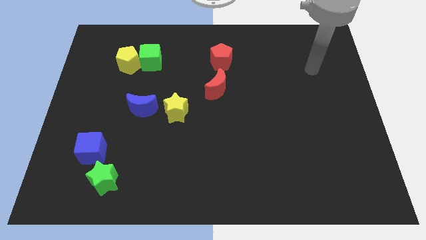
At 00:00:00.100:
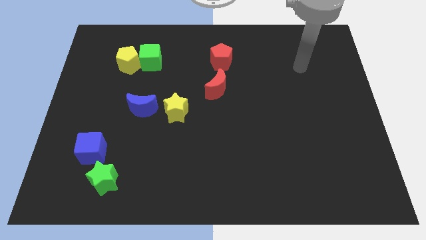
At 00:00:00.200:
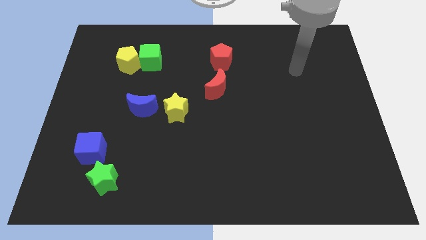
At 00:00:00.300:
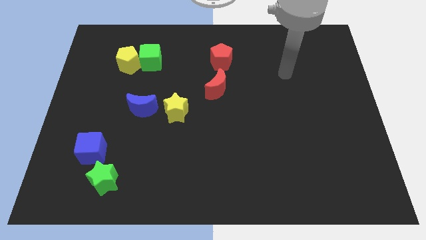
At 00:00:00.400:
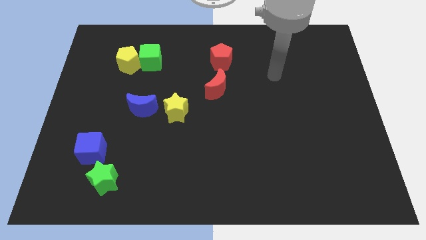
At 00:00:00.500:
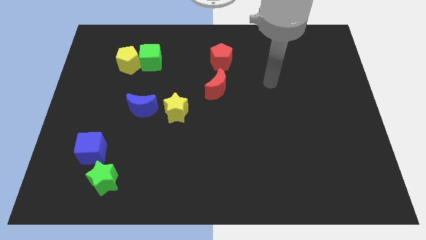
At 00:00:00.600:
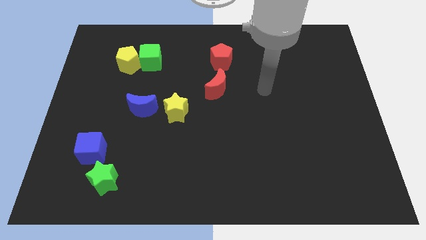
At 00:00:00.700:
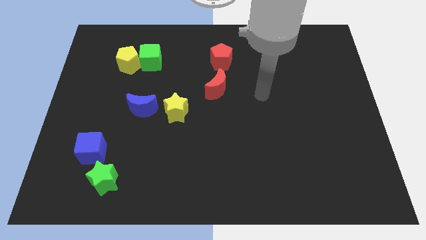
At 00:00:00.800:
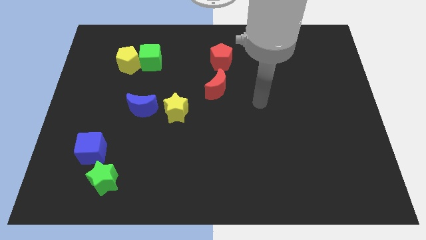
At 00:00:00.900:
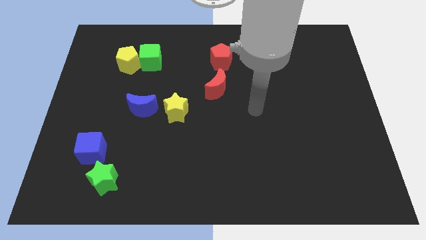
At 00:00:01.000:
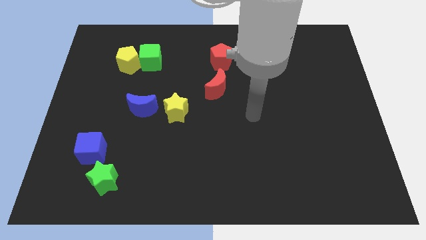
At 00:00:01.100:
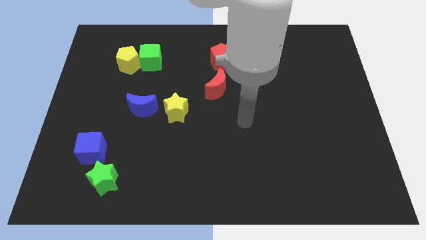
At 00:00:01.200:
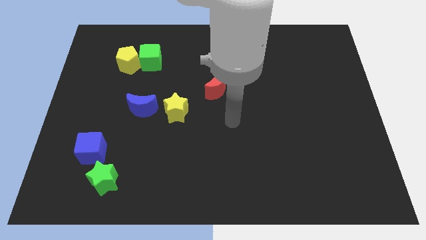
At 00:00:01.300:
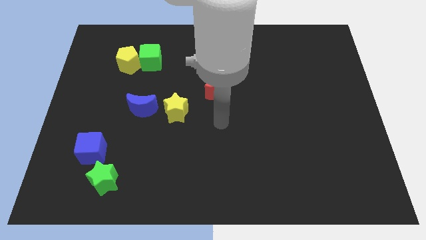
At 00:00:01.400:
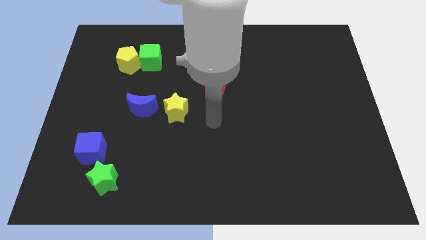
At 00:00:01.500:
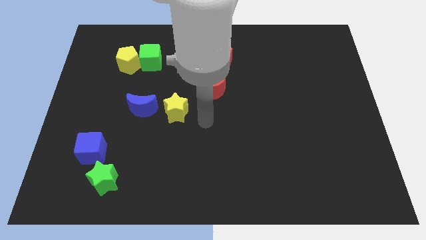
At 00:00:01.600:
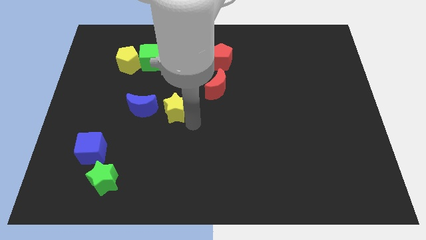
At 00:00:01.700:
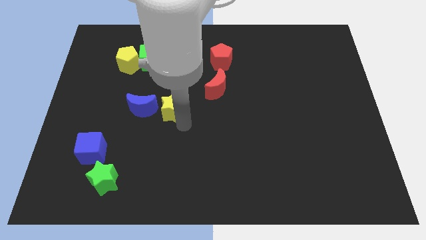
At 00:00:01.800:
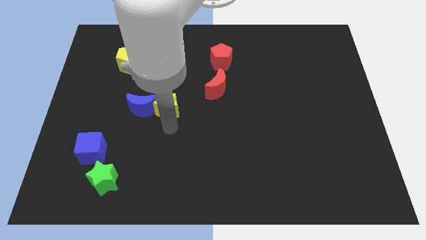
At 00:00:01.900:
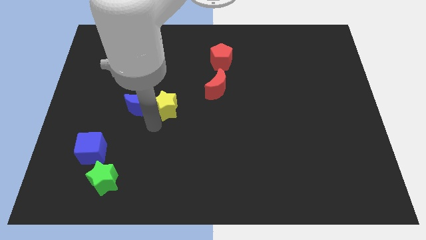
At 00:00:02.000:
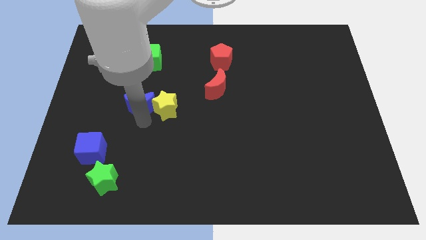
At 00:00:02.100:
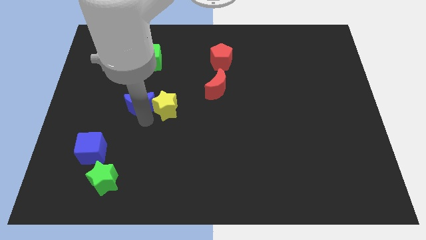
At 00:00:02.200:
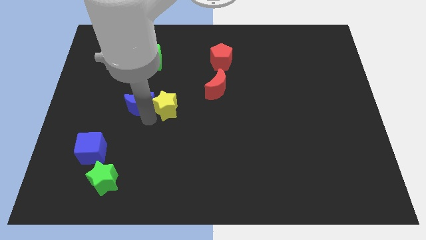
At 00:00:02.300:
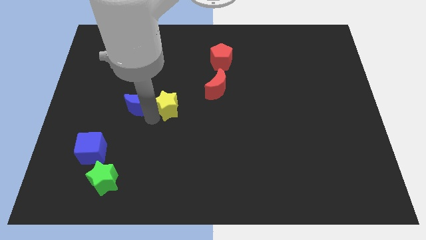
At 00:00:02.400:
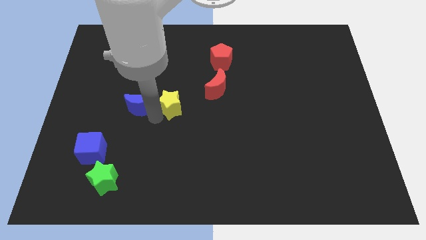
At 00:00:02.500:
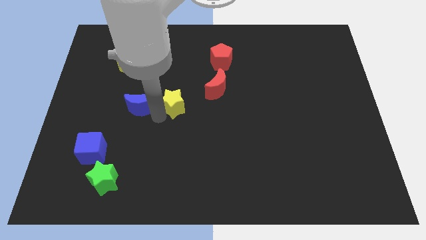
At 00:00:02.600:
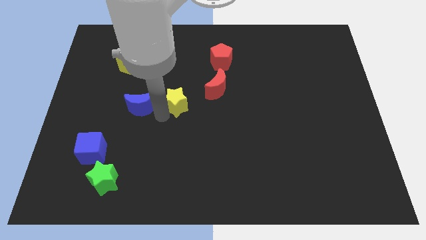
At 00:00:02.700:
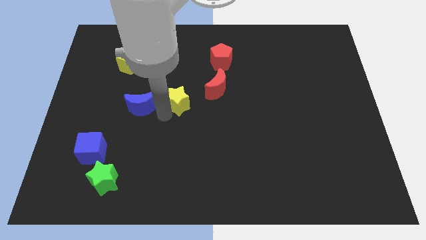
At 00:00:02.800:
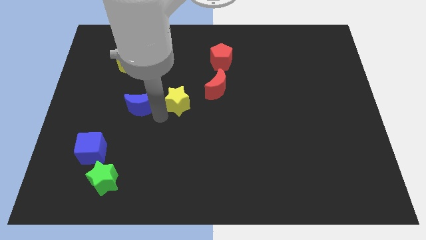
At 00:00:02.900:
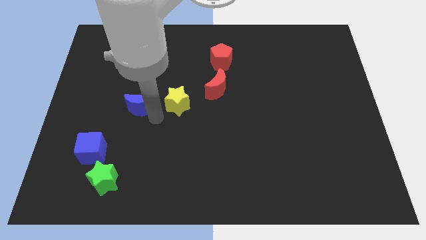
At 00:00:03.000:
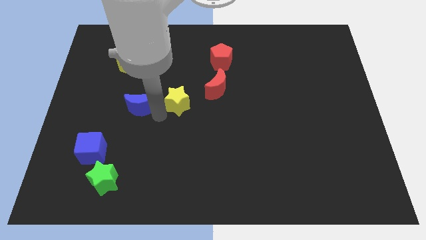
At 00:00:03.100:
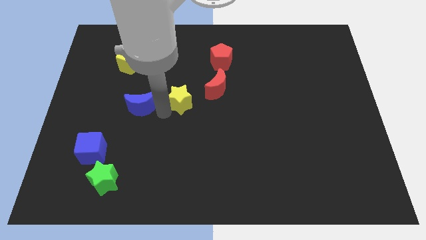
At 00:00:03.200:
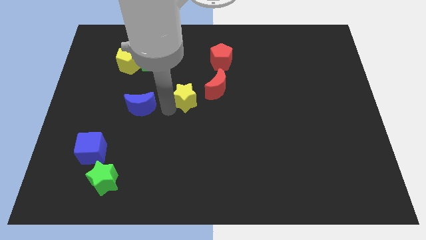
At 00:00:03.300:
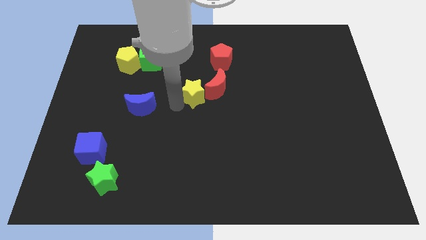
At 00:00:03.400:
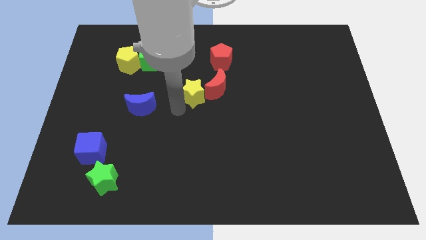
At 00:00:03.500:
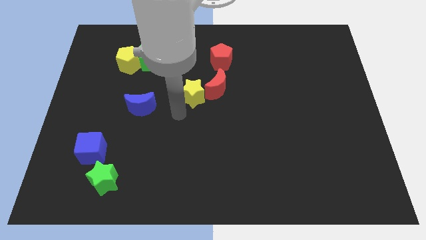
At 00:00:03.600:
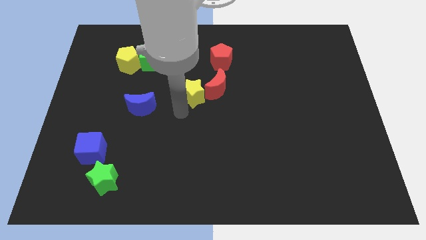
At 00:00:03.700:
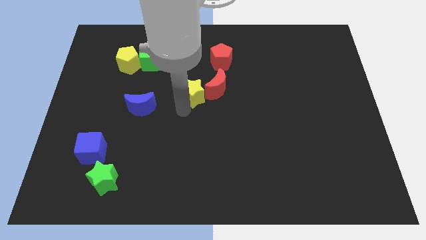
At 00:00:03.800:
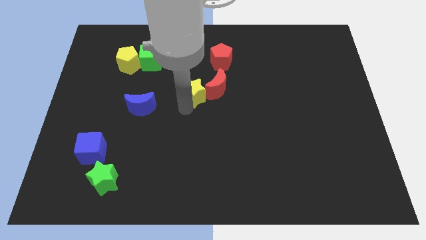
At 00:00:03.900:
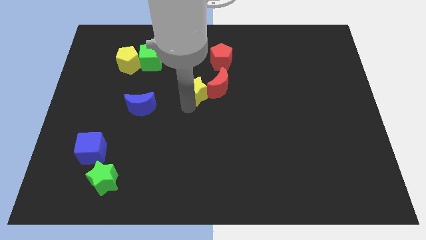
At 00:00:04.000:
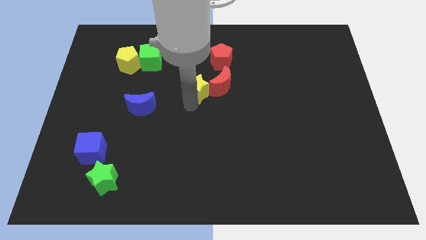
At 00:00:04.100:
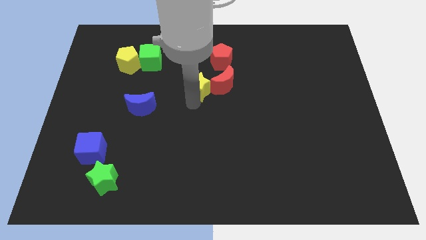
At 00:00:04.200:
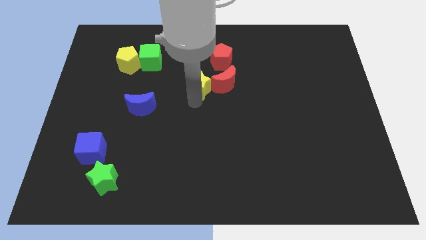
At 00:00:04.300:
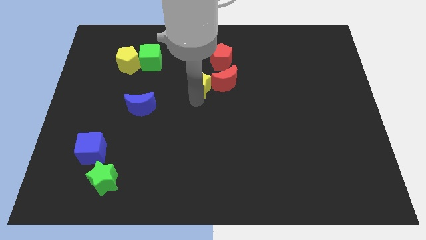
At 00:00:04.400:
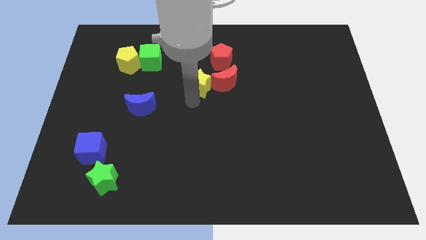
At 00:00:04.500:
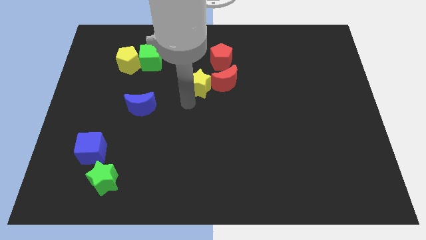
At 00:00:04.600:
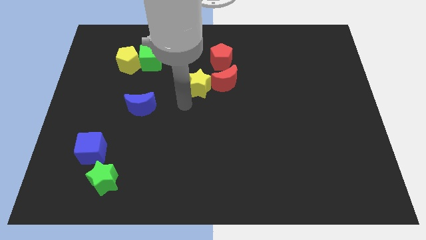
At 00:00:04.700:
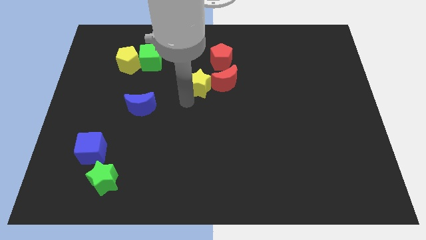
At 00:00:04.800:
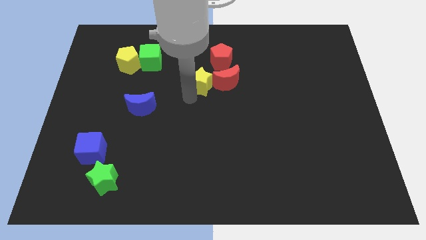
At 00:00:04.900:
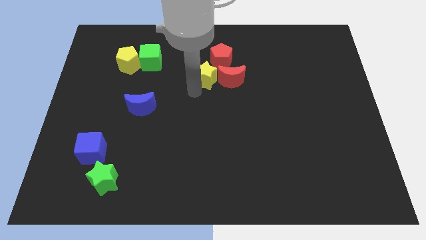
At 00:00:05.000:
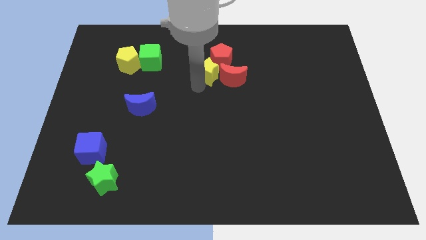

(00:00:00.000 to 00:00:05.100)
move the yellow star next to the red pentagon

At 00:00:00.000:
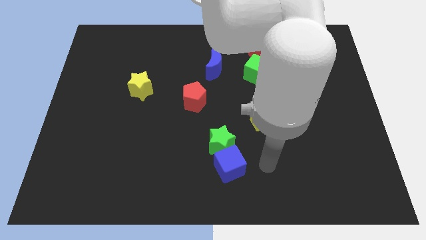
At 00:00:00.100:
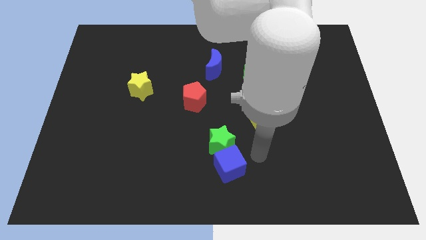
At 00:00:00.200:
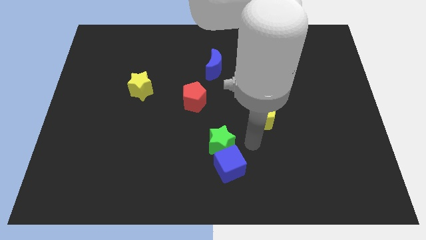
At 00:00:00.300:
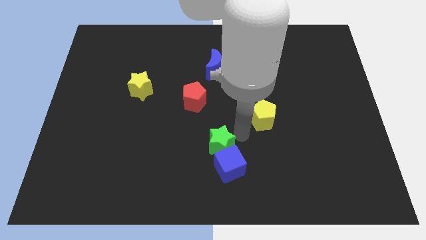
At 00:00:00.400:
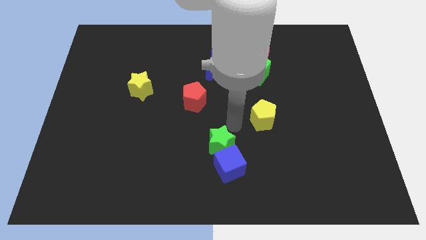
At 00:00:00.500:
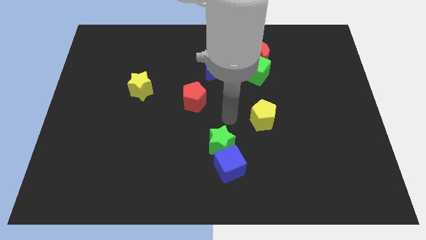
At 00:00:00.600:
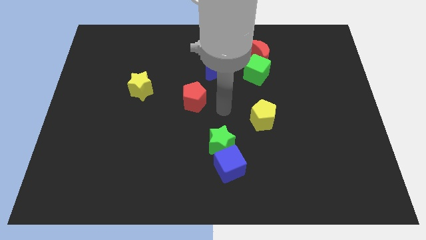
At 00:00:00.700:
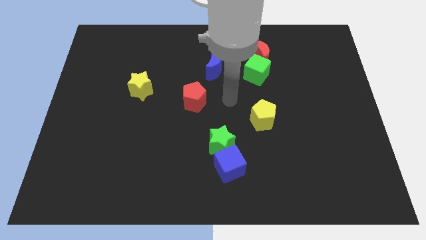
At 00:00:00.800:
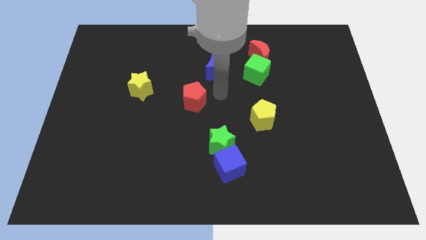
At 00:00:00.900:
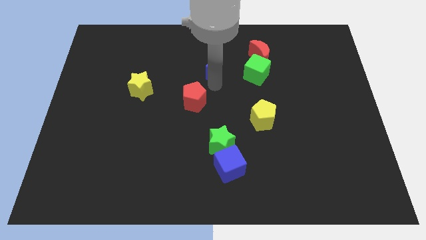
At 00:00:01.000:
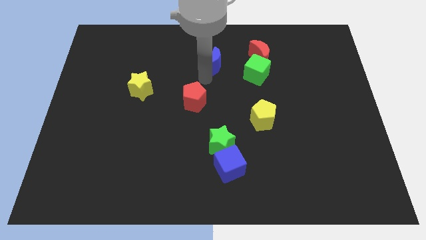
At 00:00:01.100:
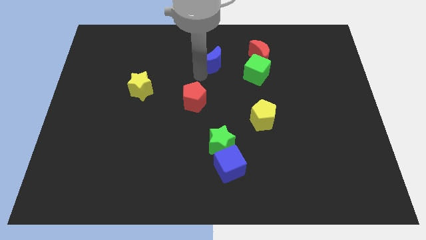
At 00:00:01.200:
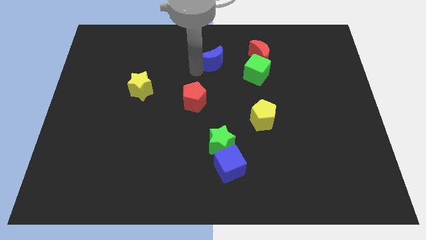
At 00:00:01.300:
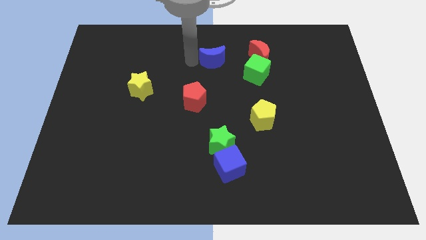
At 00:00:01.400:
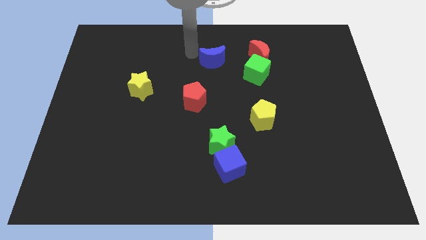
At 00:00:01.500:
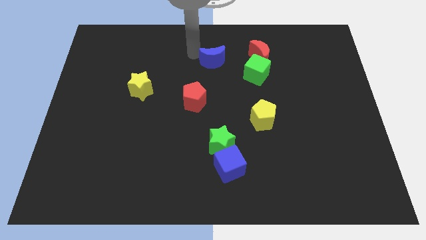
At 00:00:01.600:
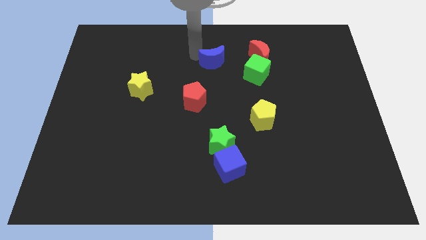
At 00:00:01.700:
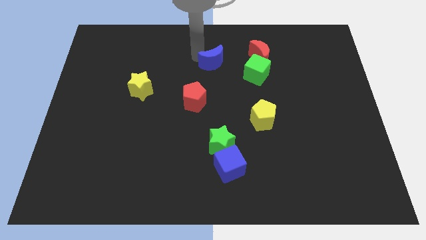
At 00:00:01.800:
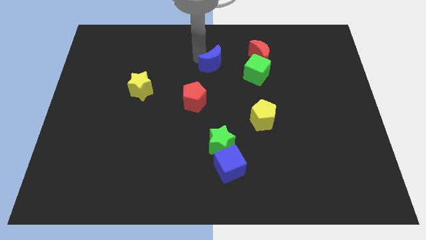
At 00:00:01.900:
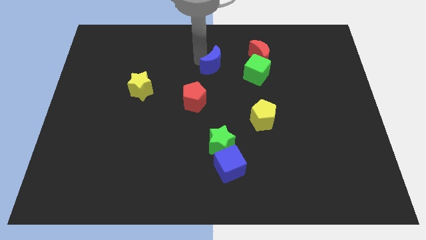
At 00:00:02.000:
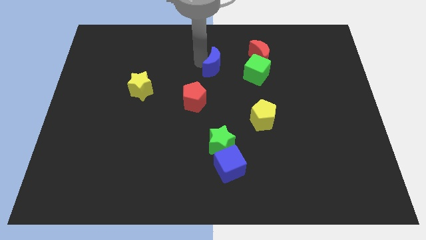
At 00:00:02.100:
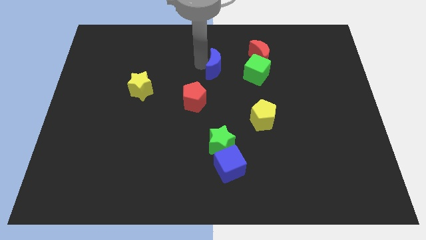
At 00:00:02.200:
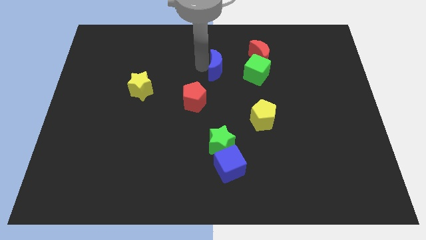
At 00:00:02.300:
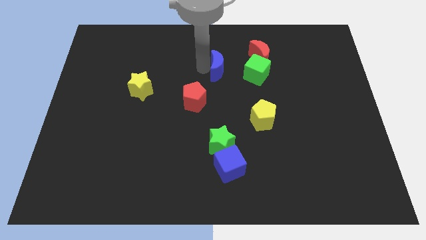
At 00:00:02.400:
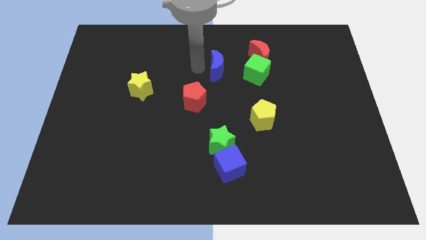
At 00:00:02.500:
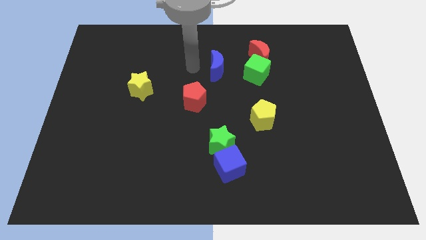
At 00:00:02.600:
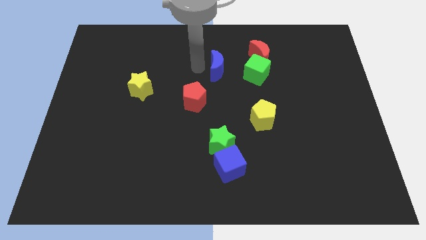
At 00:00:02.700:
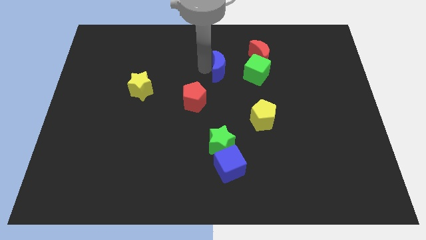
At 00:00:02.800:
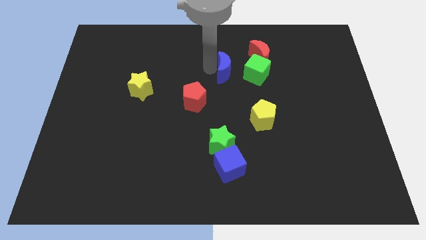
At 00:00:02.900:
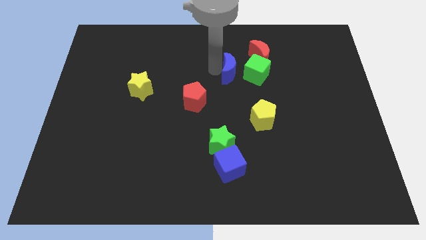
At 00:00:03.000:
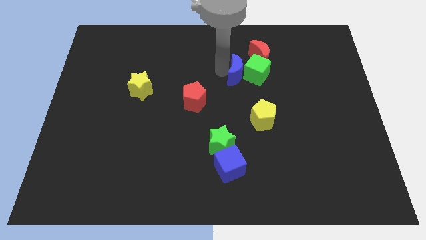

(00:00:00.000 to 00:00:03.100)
move the blue moon close to the green cube
